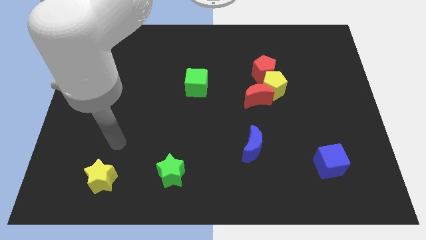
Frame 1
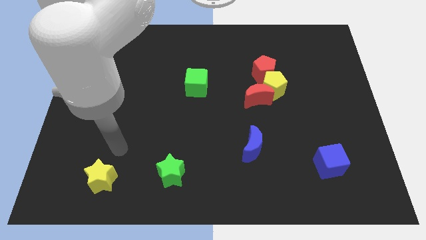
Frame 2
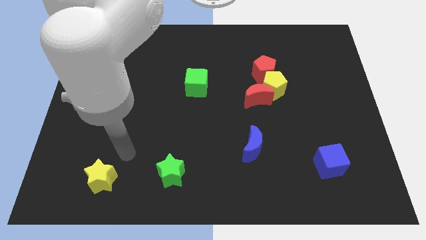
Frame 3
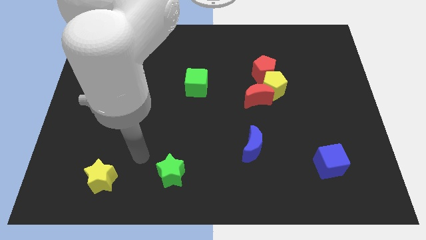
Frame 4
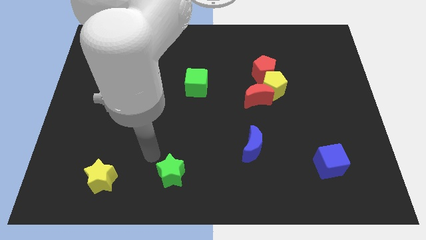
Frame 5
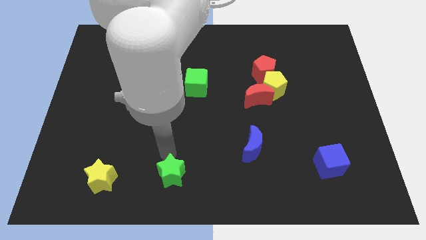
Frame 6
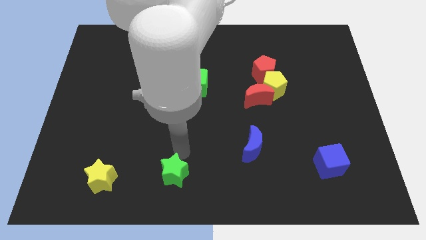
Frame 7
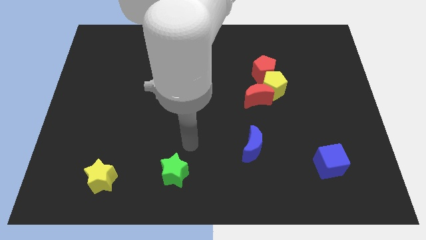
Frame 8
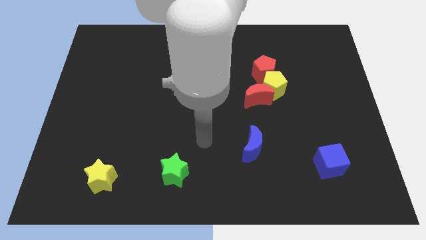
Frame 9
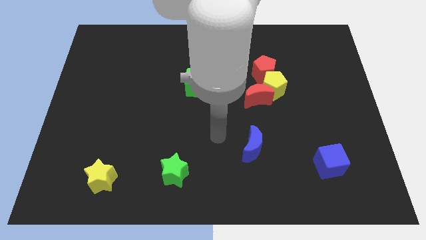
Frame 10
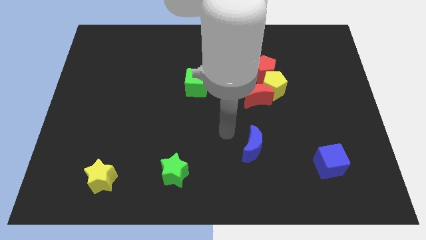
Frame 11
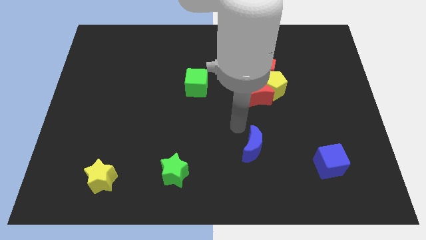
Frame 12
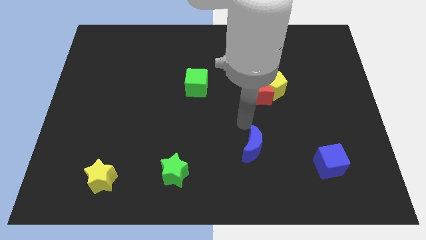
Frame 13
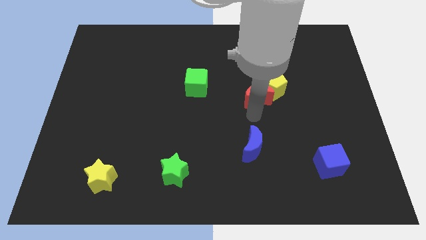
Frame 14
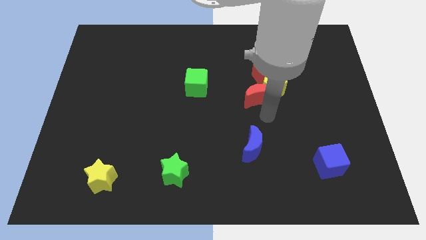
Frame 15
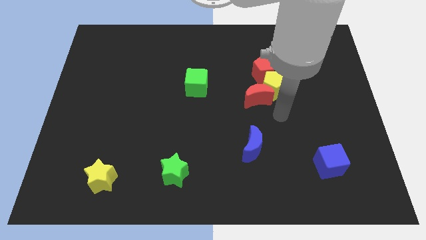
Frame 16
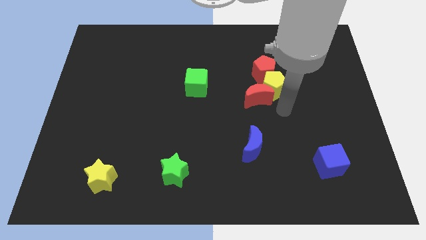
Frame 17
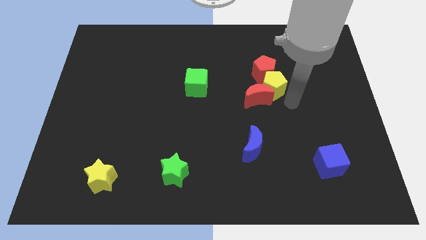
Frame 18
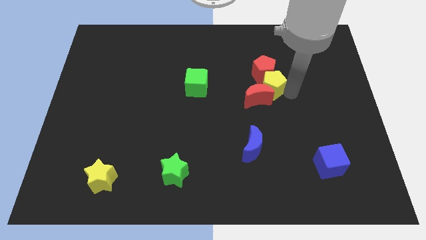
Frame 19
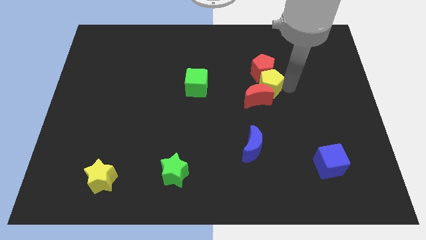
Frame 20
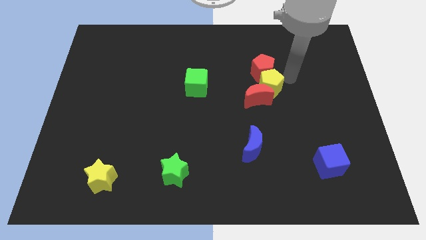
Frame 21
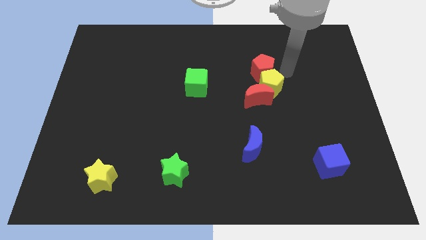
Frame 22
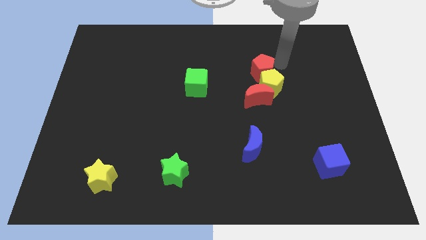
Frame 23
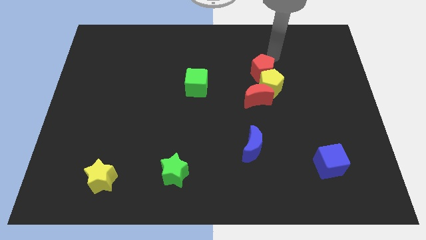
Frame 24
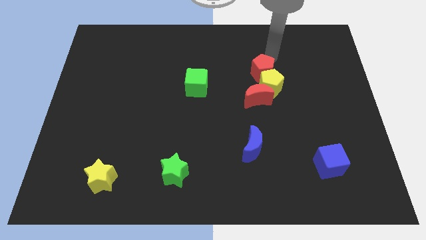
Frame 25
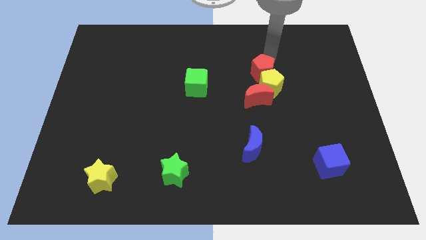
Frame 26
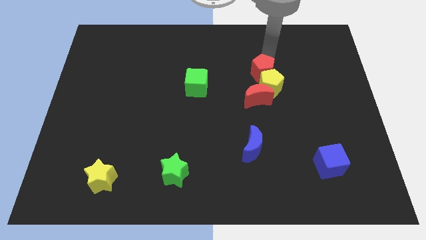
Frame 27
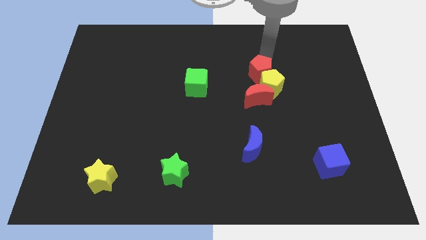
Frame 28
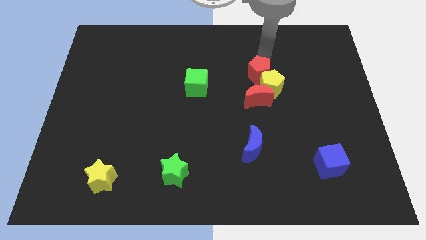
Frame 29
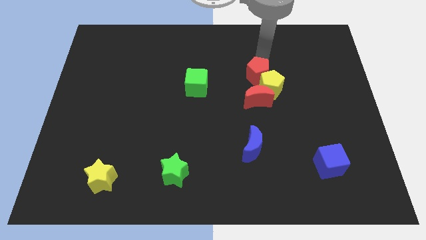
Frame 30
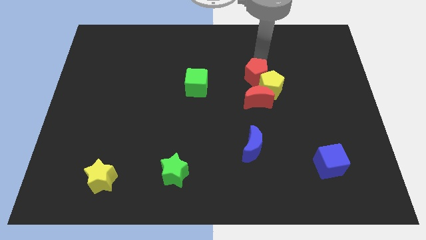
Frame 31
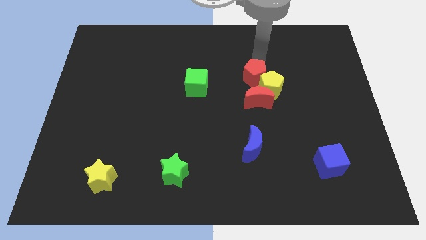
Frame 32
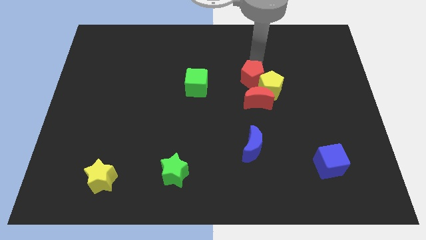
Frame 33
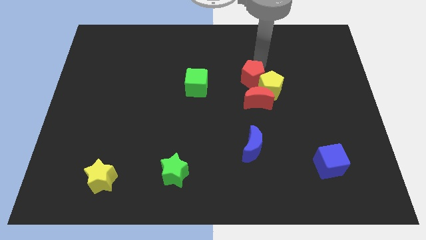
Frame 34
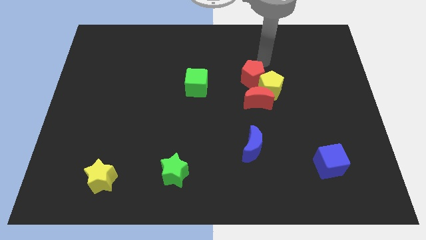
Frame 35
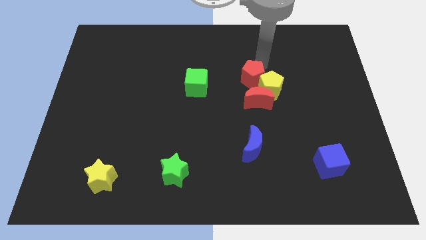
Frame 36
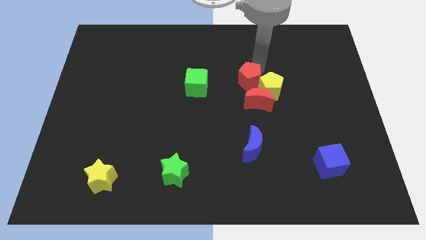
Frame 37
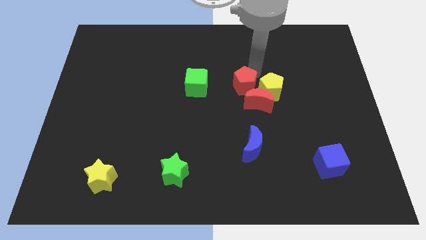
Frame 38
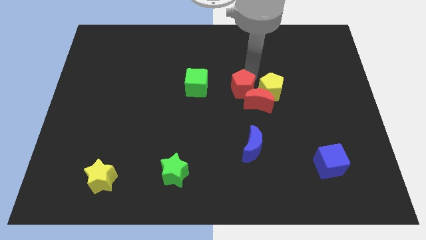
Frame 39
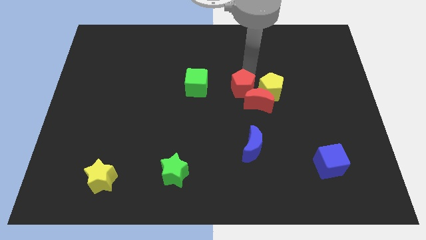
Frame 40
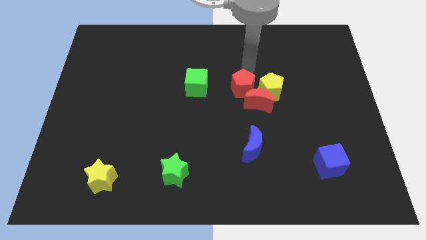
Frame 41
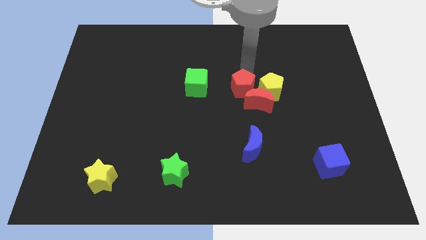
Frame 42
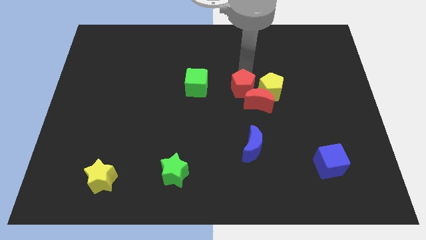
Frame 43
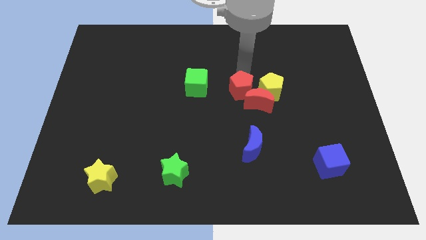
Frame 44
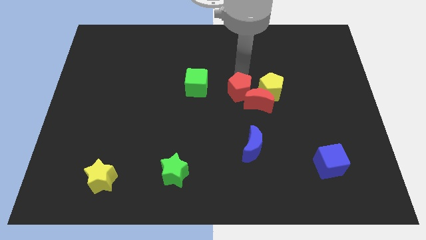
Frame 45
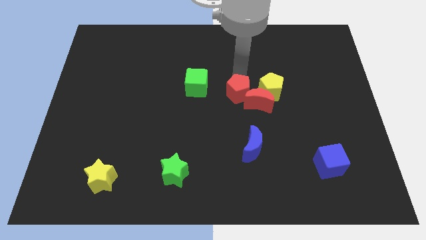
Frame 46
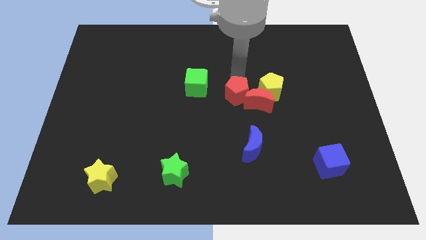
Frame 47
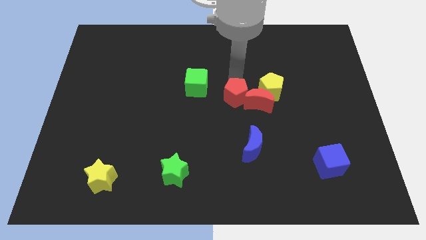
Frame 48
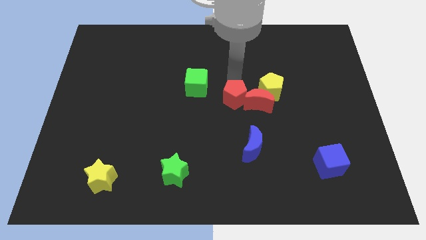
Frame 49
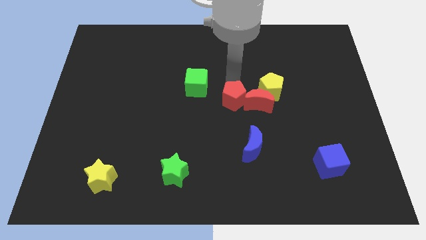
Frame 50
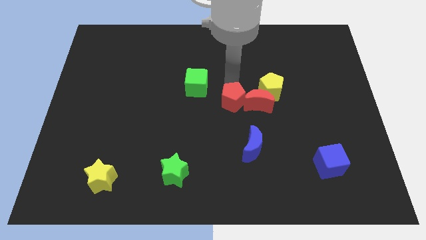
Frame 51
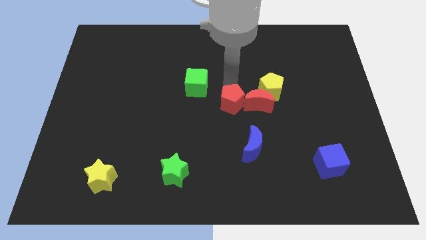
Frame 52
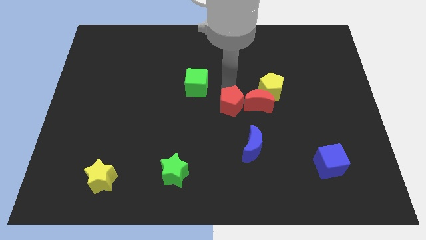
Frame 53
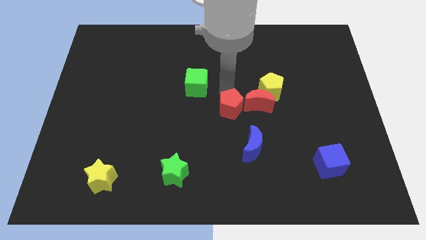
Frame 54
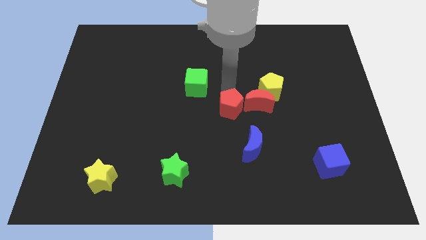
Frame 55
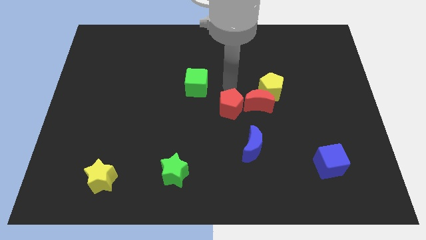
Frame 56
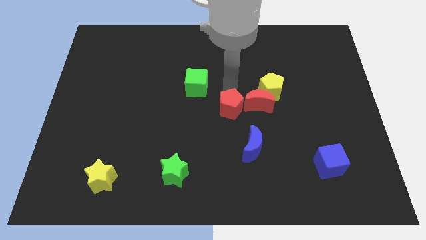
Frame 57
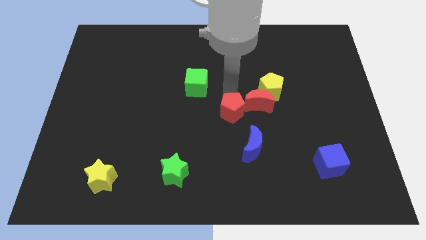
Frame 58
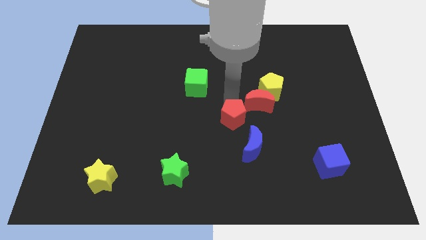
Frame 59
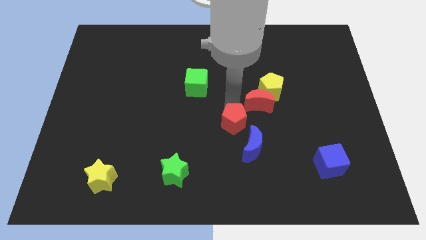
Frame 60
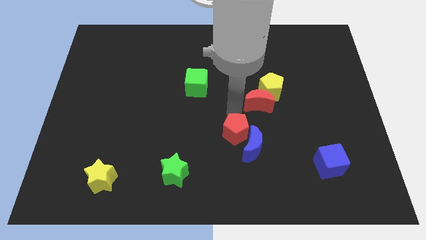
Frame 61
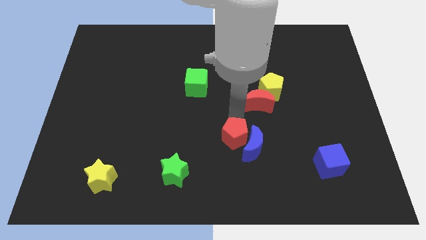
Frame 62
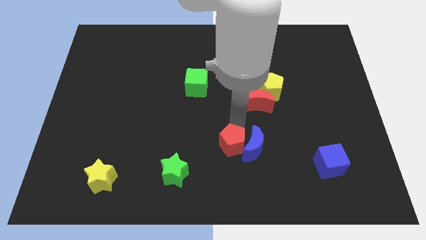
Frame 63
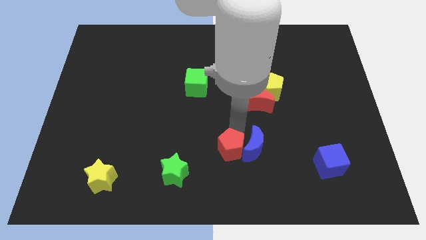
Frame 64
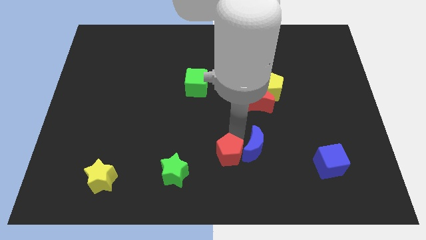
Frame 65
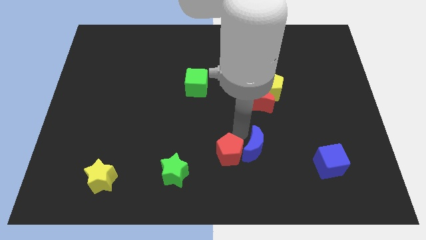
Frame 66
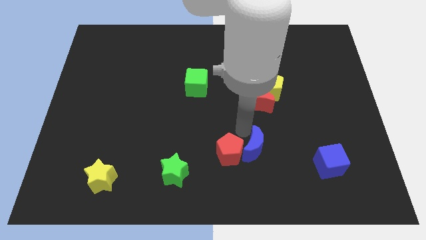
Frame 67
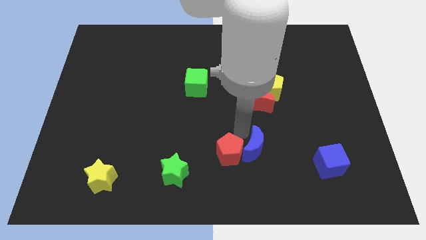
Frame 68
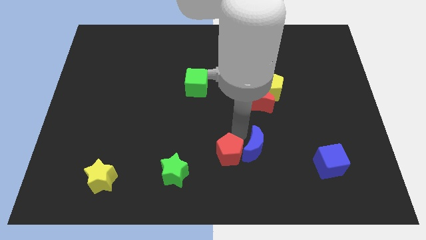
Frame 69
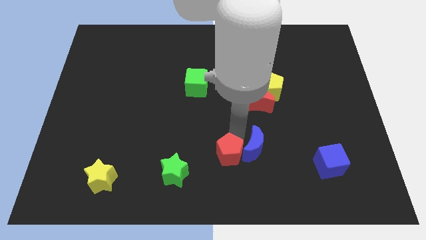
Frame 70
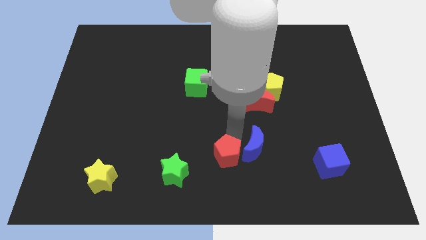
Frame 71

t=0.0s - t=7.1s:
push the red pentagon to the bottom
